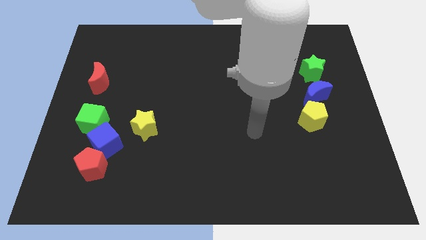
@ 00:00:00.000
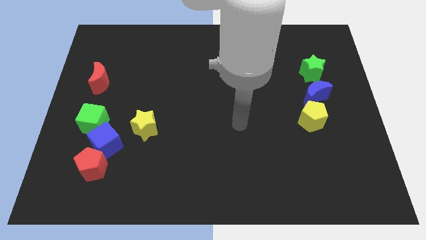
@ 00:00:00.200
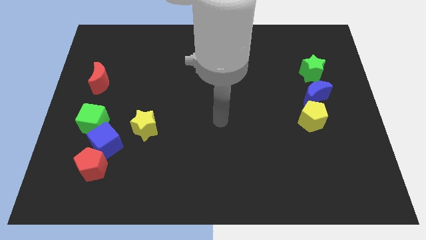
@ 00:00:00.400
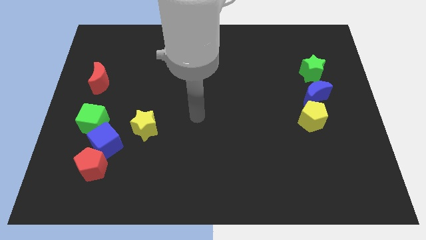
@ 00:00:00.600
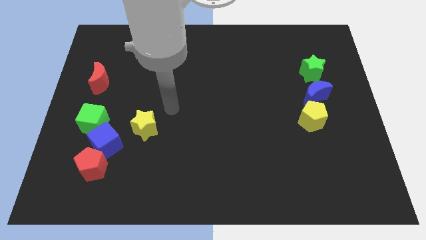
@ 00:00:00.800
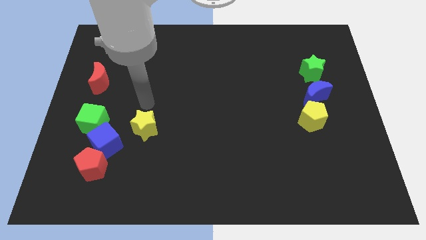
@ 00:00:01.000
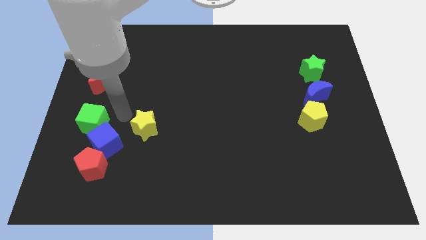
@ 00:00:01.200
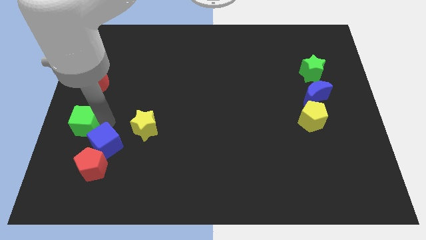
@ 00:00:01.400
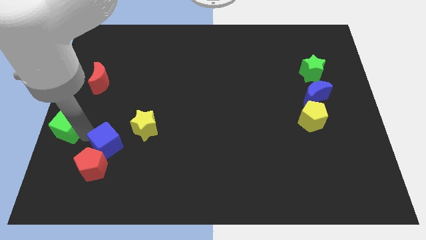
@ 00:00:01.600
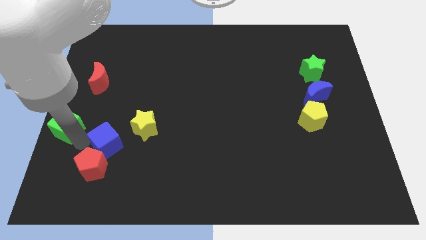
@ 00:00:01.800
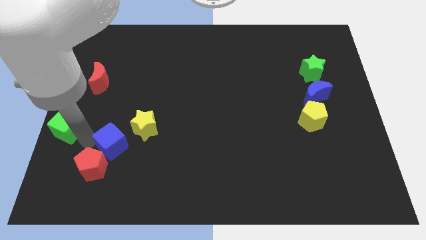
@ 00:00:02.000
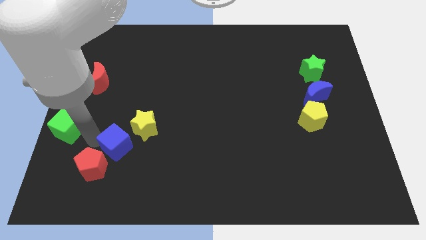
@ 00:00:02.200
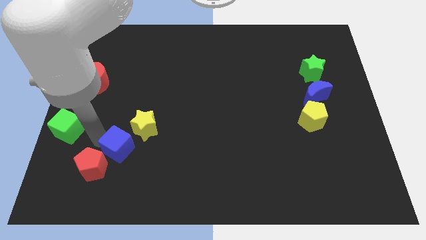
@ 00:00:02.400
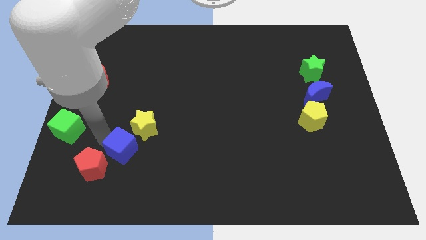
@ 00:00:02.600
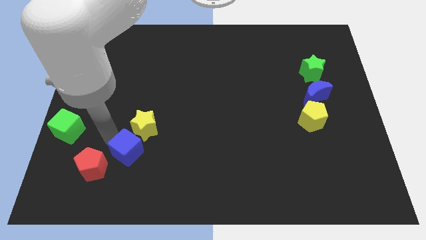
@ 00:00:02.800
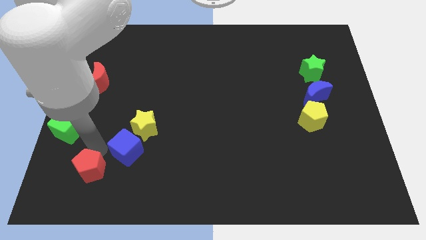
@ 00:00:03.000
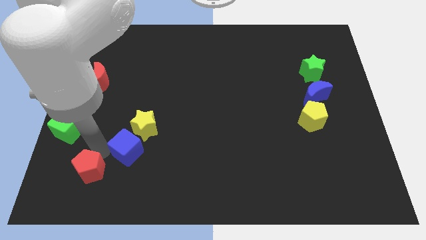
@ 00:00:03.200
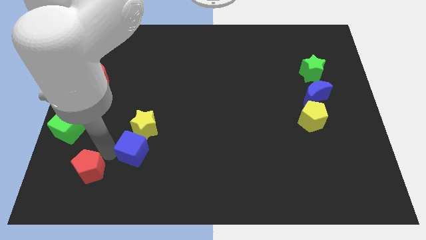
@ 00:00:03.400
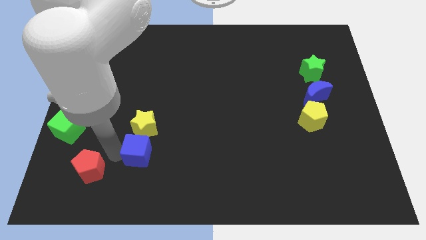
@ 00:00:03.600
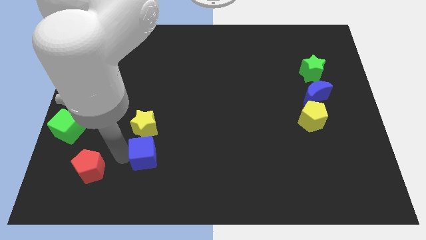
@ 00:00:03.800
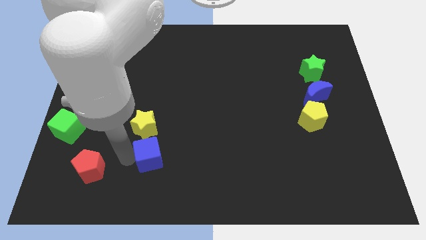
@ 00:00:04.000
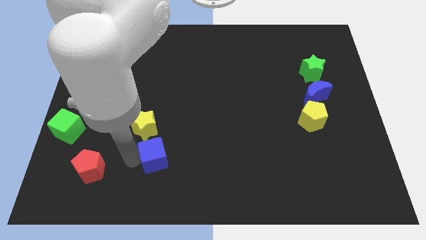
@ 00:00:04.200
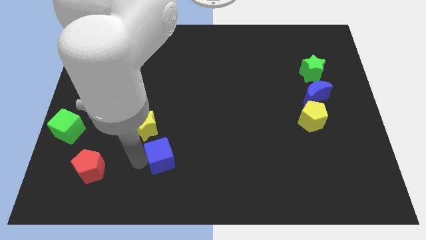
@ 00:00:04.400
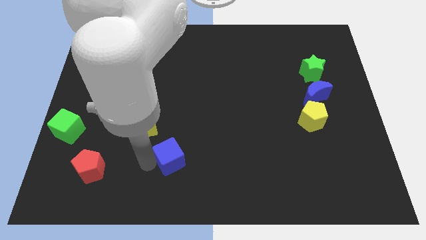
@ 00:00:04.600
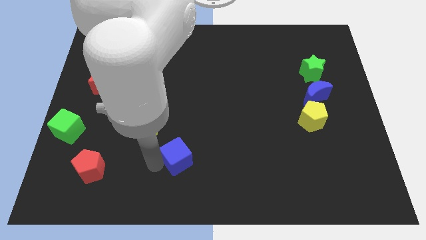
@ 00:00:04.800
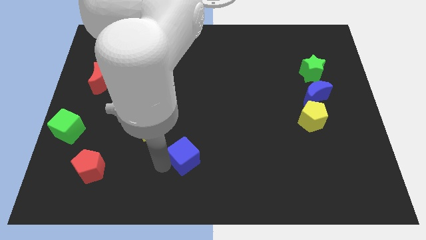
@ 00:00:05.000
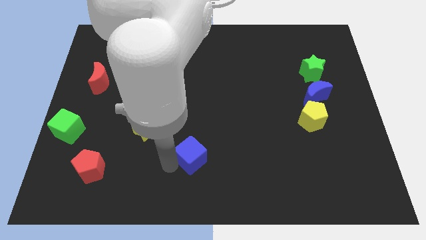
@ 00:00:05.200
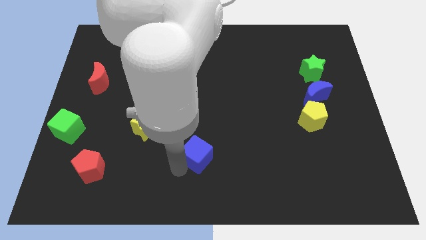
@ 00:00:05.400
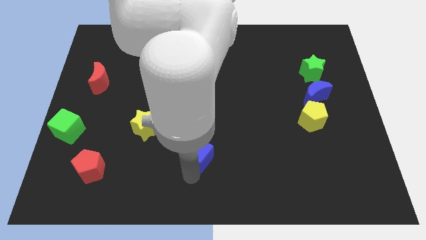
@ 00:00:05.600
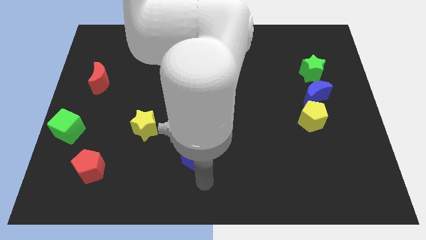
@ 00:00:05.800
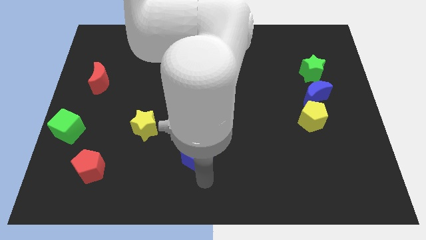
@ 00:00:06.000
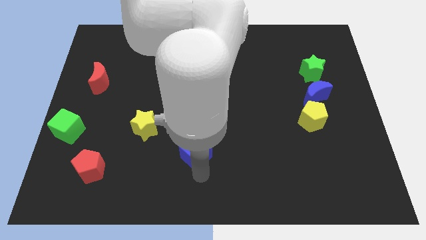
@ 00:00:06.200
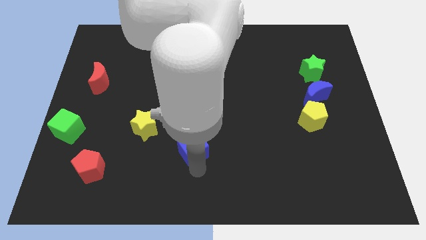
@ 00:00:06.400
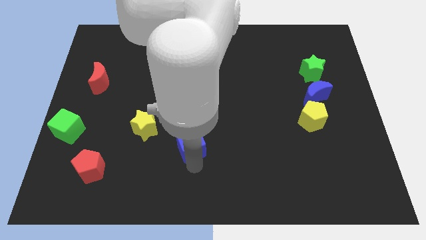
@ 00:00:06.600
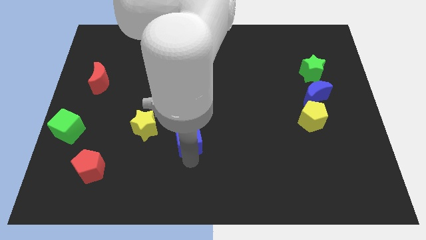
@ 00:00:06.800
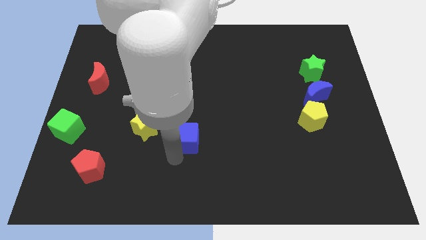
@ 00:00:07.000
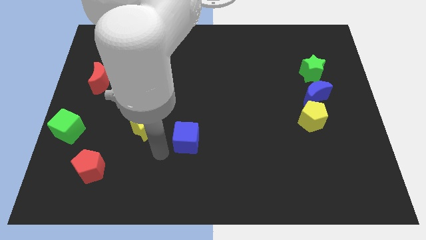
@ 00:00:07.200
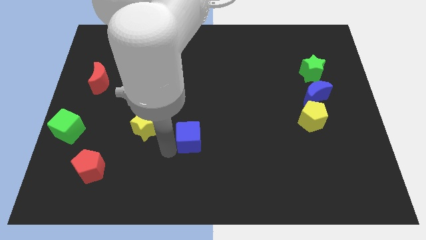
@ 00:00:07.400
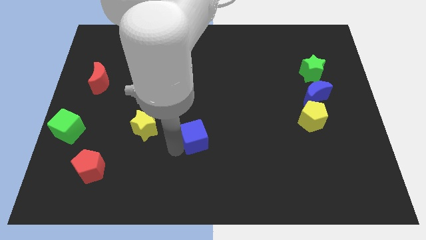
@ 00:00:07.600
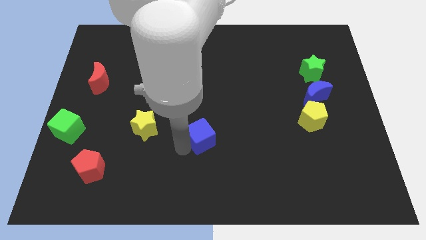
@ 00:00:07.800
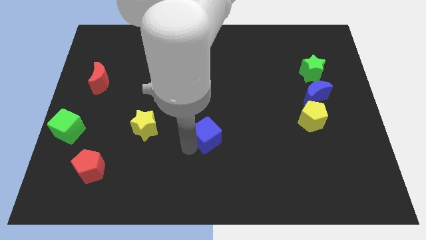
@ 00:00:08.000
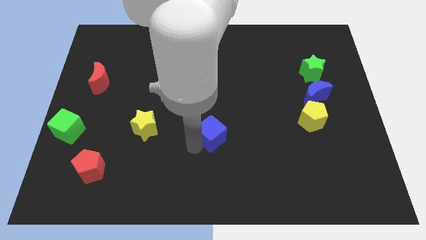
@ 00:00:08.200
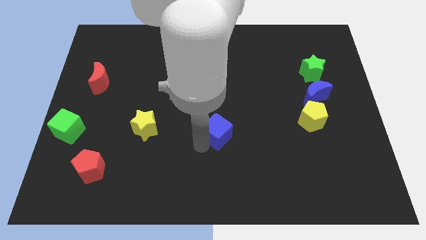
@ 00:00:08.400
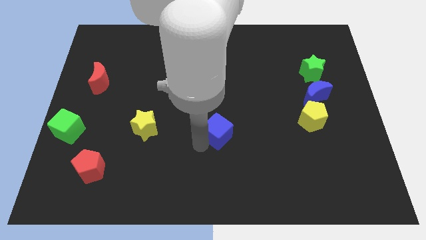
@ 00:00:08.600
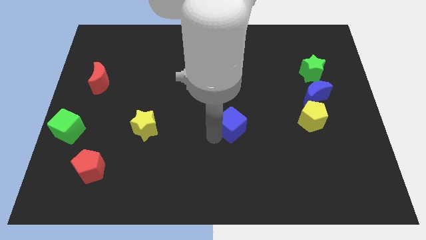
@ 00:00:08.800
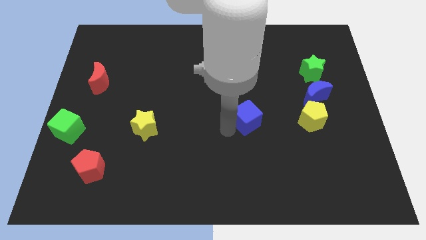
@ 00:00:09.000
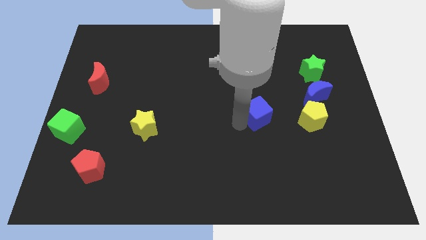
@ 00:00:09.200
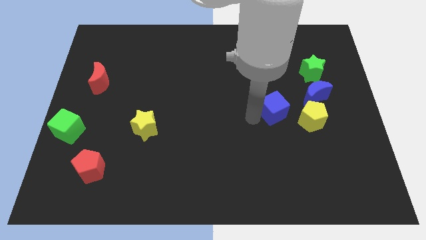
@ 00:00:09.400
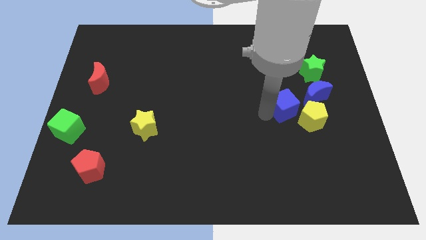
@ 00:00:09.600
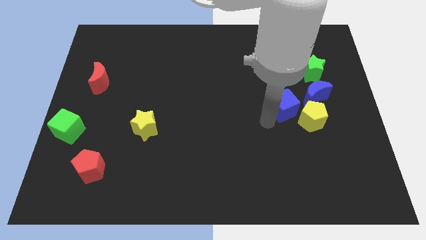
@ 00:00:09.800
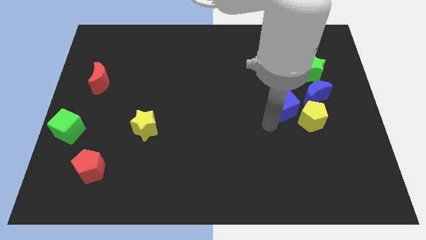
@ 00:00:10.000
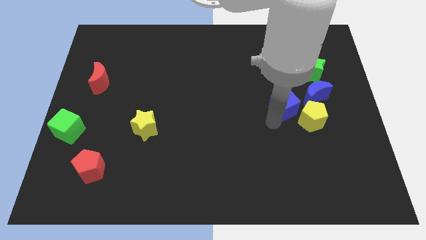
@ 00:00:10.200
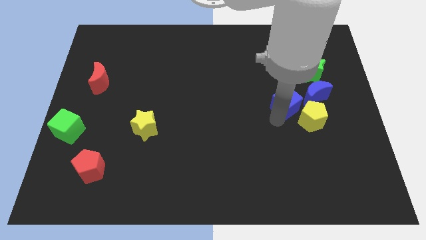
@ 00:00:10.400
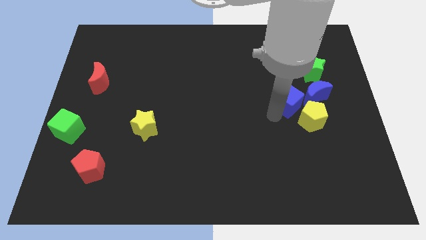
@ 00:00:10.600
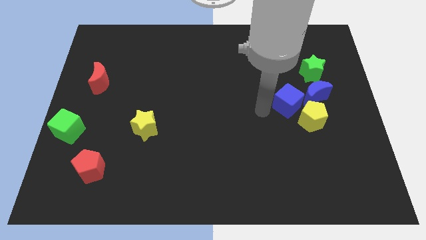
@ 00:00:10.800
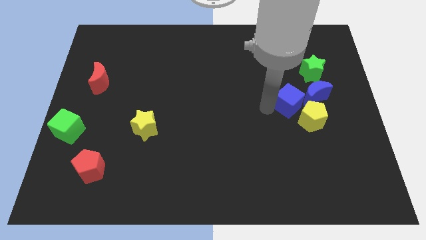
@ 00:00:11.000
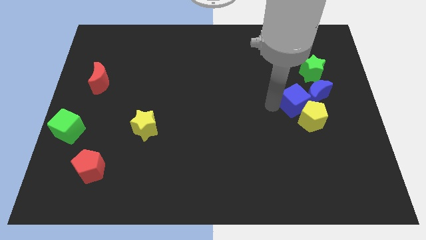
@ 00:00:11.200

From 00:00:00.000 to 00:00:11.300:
push the blue cube to the blue moon
